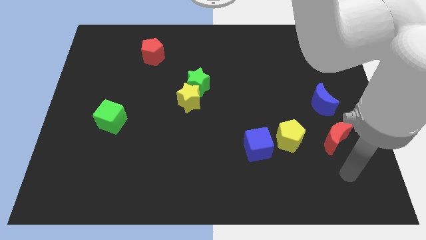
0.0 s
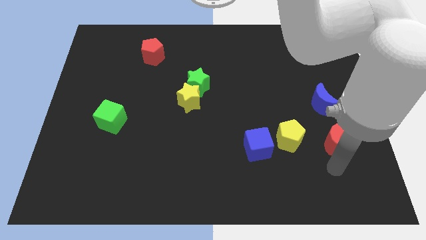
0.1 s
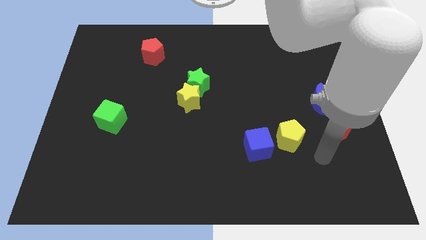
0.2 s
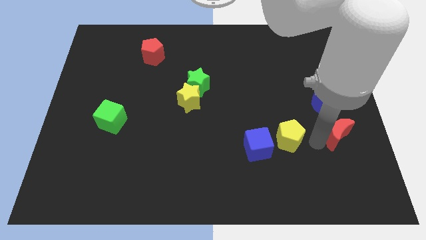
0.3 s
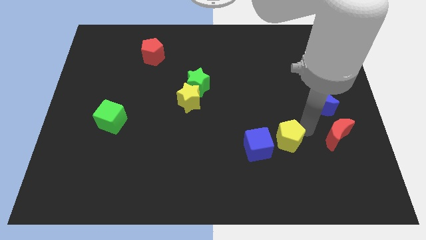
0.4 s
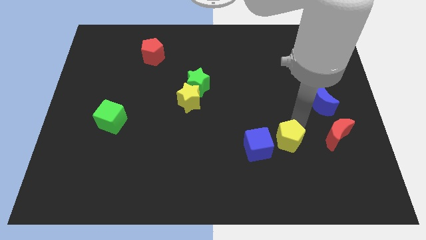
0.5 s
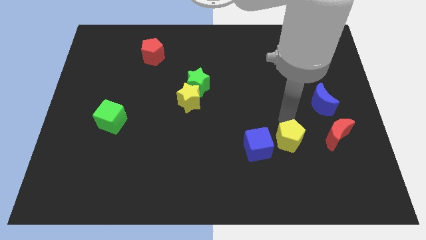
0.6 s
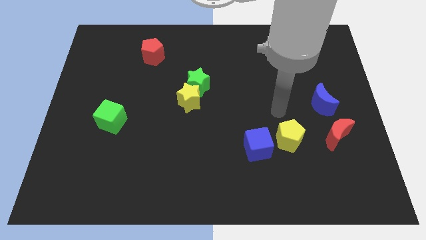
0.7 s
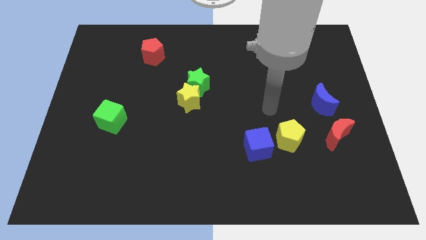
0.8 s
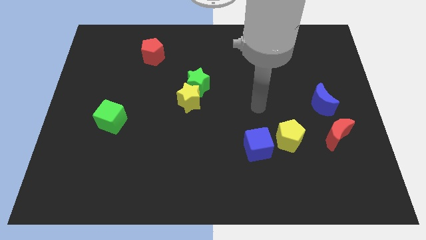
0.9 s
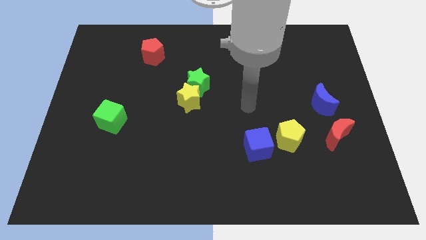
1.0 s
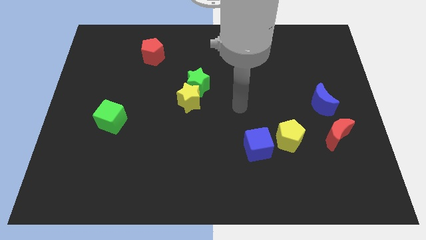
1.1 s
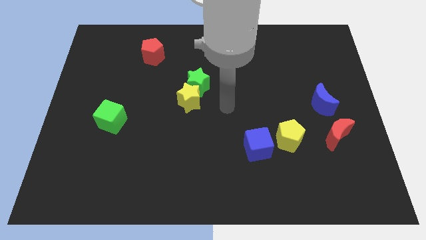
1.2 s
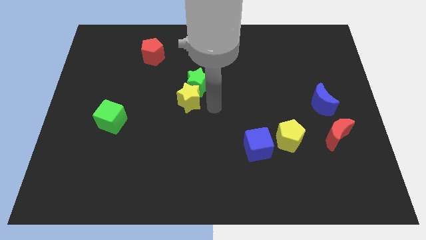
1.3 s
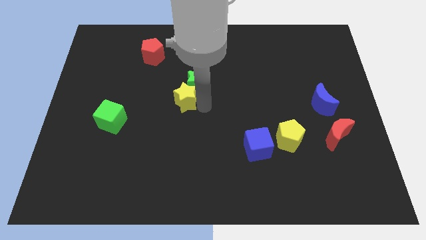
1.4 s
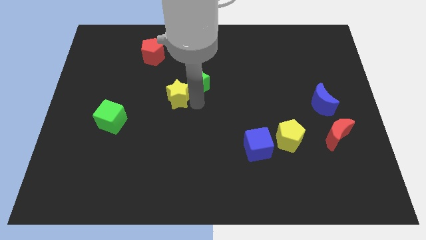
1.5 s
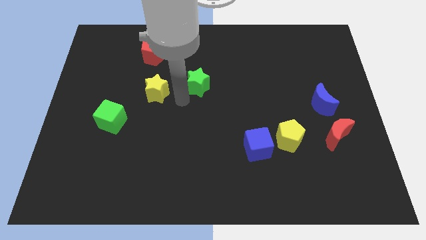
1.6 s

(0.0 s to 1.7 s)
move the green star away from the yellow star

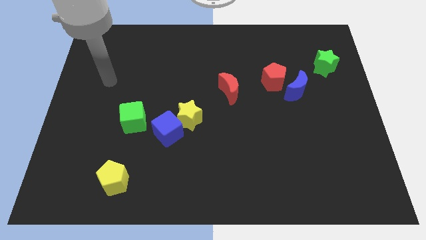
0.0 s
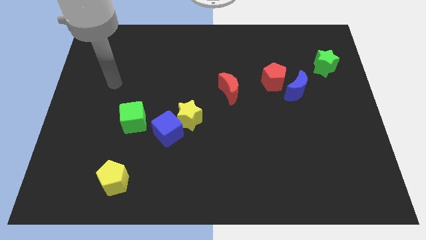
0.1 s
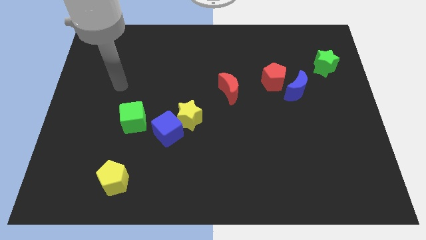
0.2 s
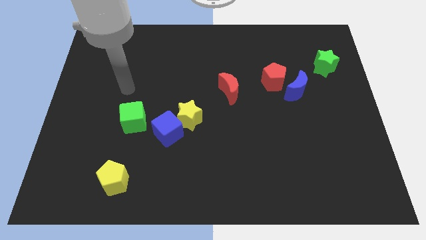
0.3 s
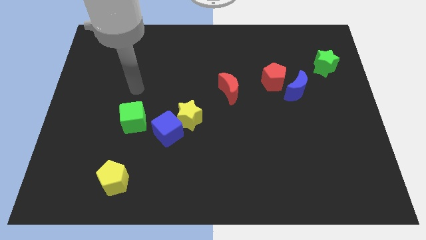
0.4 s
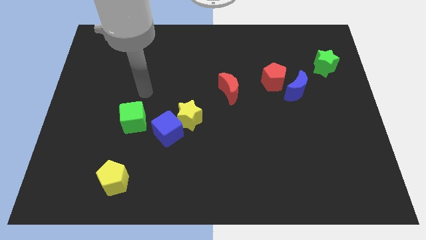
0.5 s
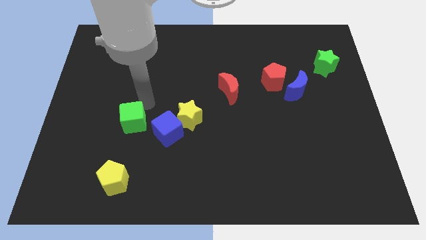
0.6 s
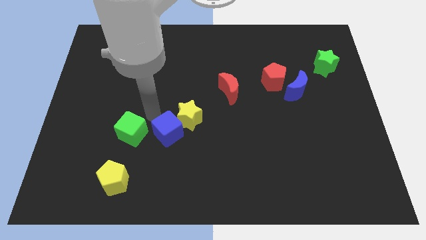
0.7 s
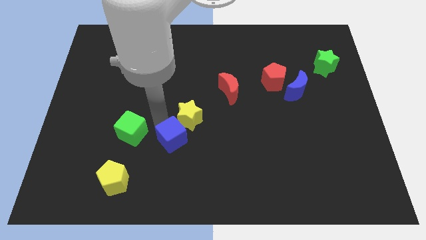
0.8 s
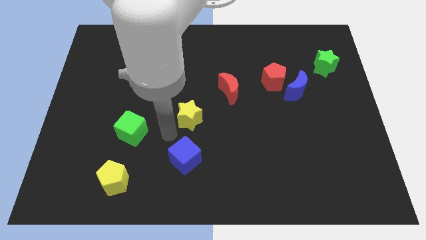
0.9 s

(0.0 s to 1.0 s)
move the yellow star away from the blue cube

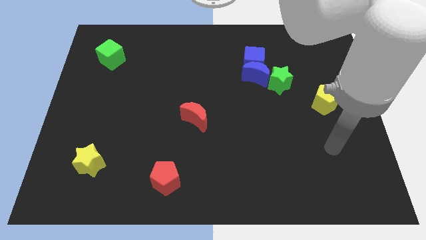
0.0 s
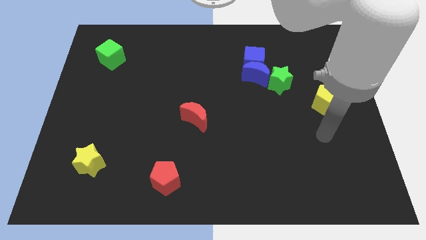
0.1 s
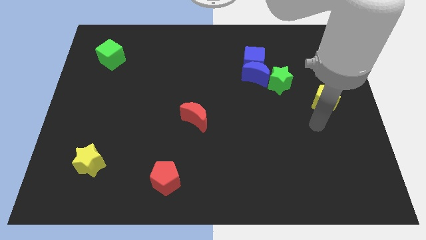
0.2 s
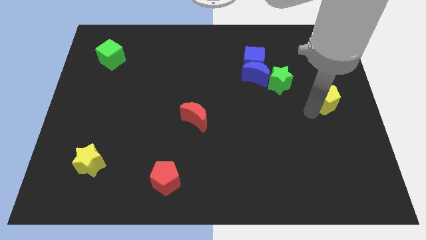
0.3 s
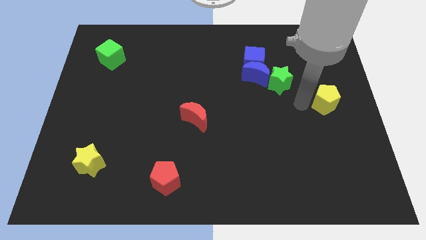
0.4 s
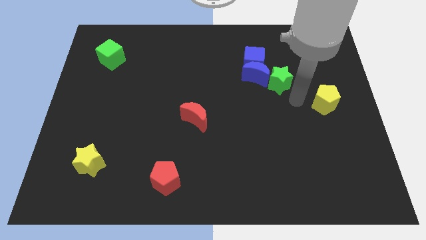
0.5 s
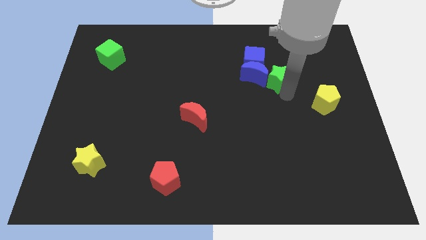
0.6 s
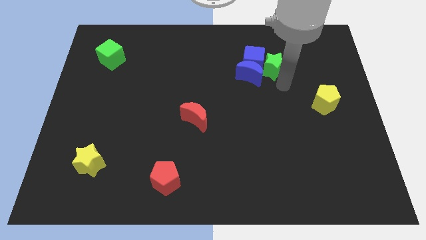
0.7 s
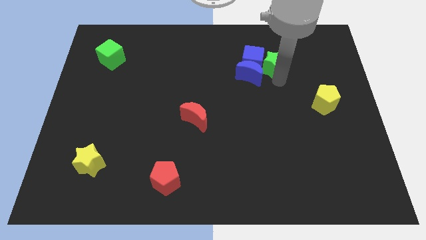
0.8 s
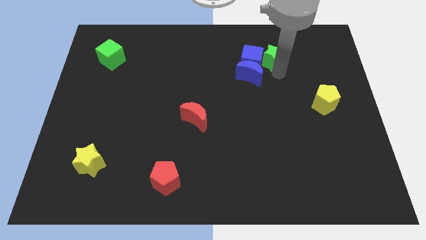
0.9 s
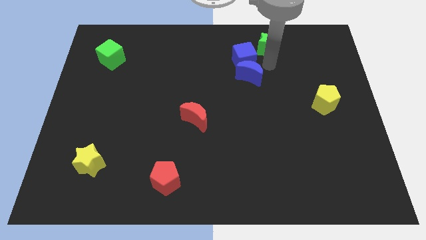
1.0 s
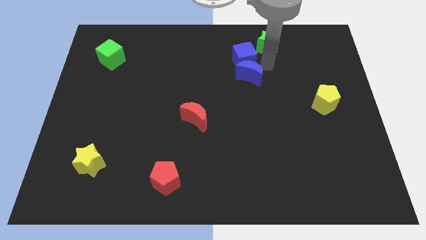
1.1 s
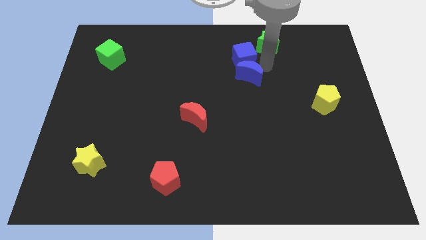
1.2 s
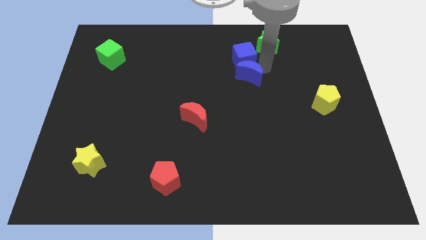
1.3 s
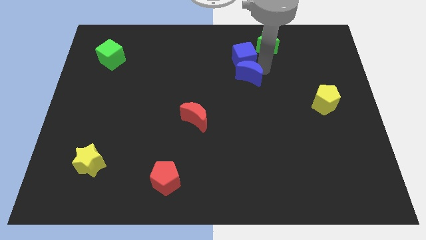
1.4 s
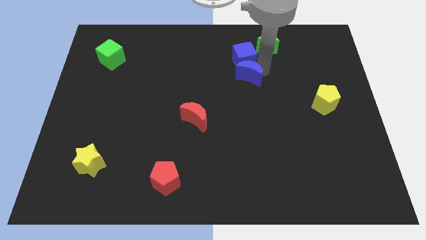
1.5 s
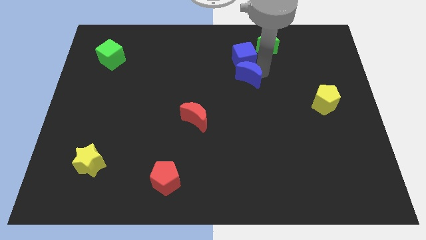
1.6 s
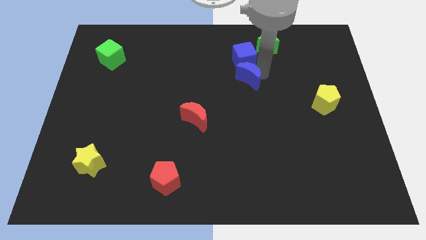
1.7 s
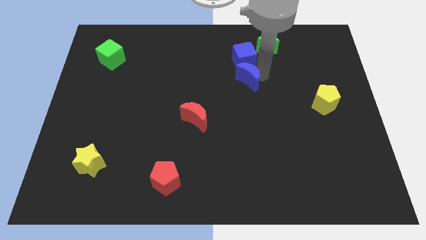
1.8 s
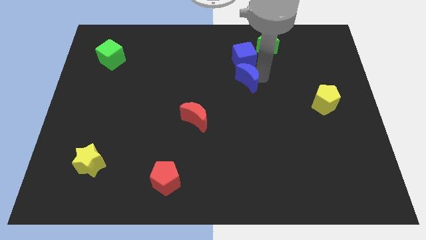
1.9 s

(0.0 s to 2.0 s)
pull the blue moon apart from the blue cube and green star

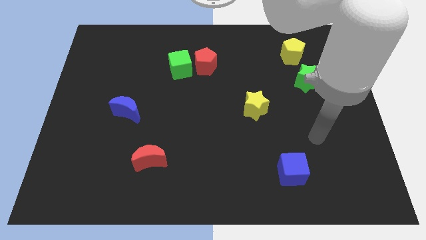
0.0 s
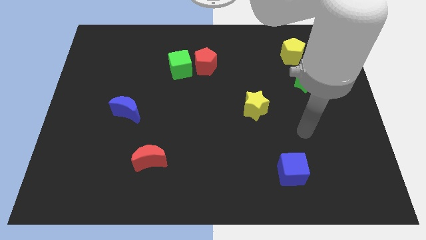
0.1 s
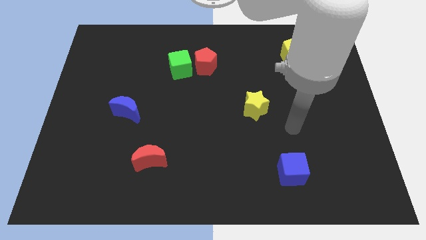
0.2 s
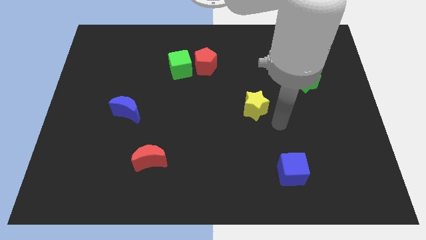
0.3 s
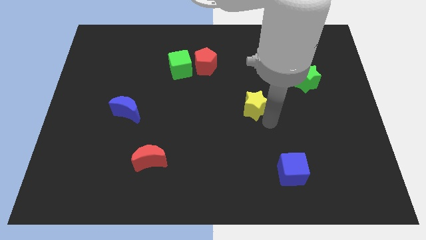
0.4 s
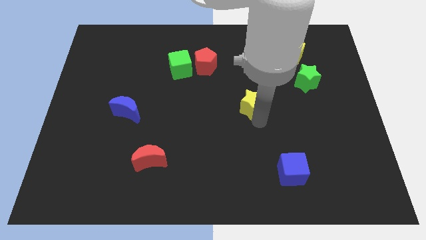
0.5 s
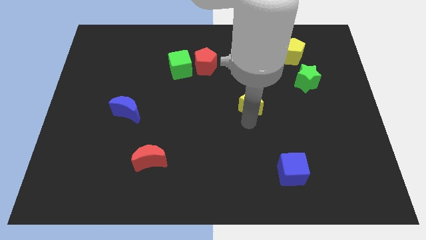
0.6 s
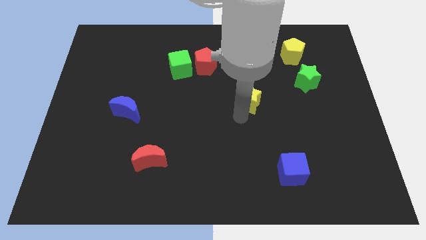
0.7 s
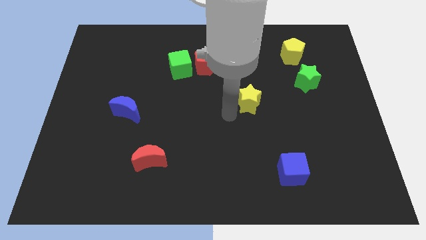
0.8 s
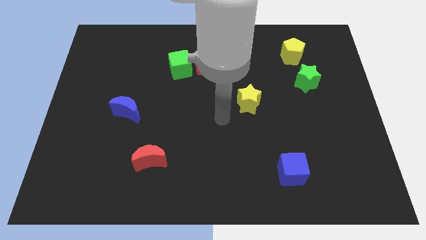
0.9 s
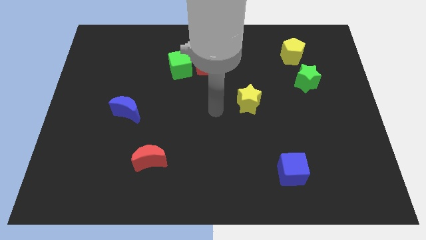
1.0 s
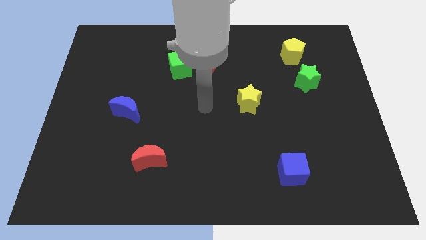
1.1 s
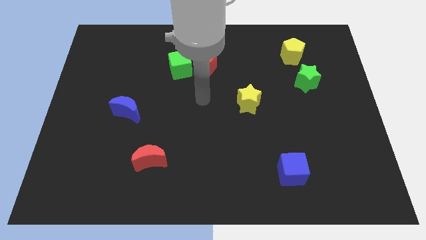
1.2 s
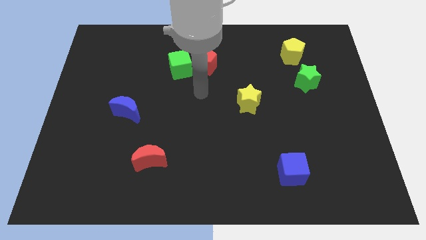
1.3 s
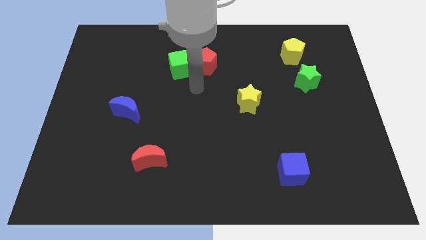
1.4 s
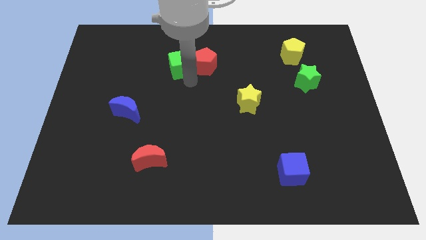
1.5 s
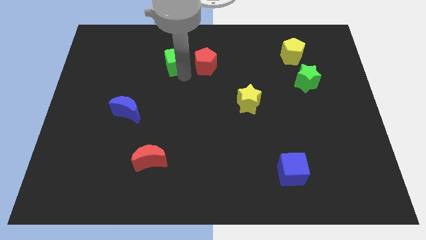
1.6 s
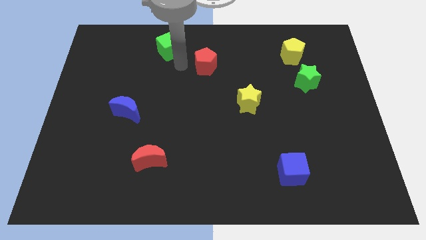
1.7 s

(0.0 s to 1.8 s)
pull the red pentagon apart from the green cube

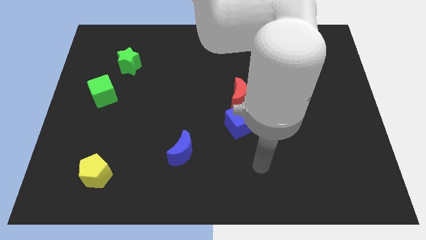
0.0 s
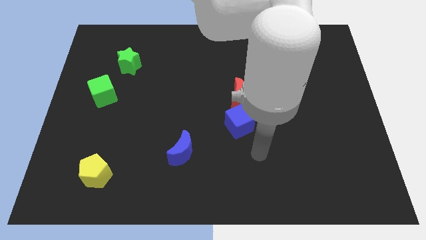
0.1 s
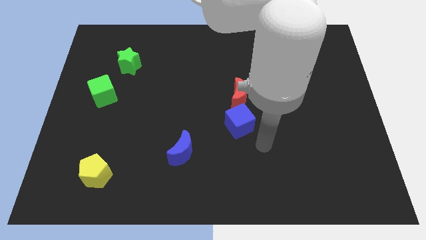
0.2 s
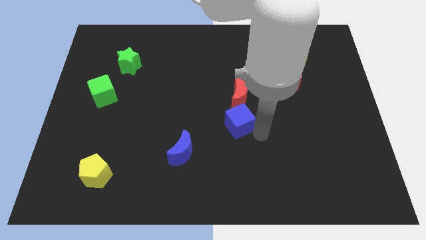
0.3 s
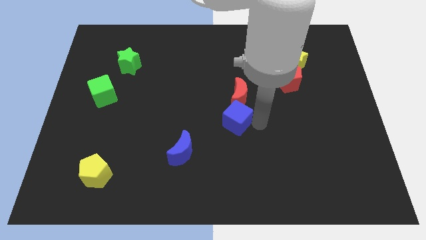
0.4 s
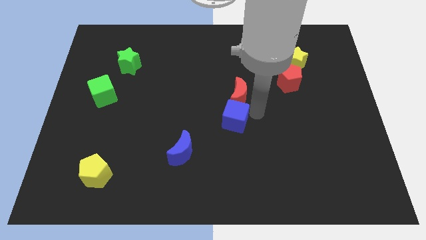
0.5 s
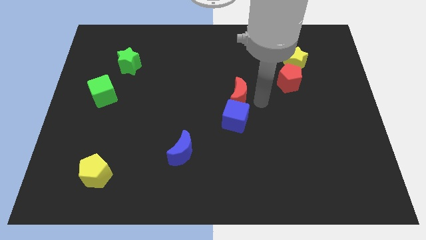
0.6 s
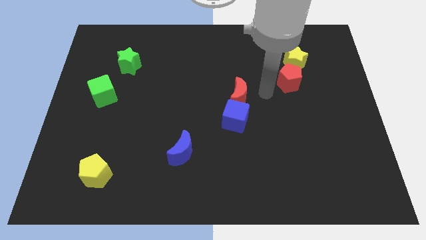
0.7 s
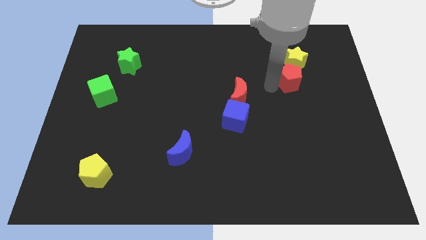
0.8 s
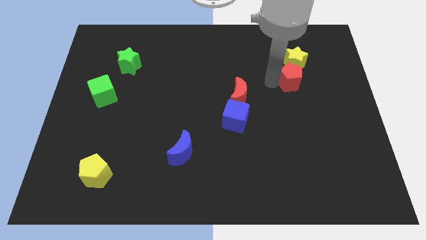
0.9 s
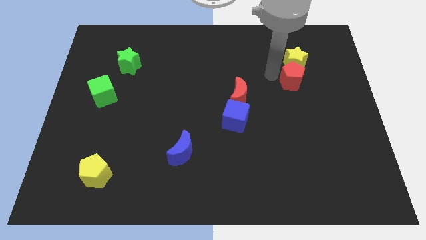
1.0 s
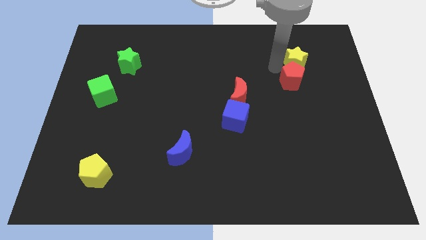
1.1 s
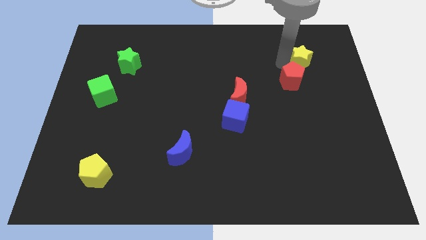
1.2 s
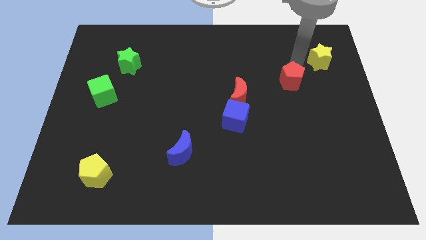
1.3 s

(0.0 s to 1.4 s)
separate the red pentagon from the yellow star

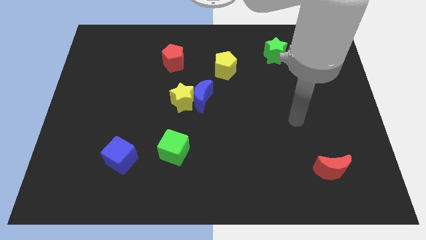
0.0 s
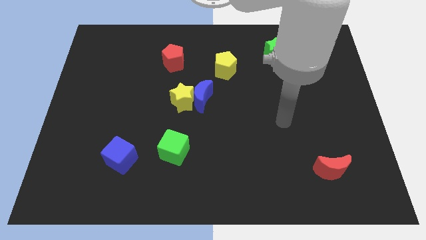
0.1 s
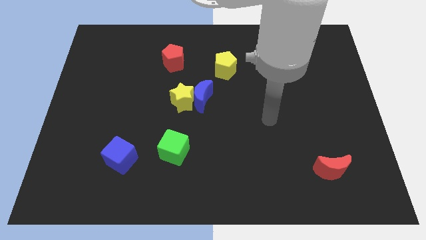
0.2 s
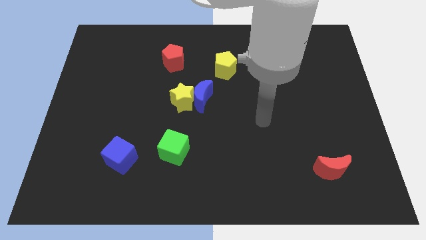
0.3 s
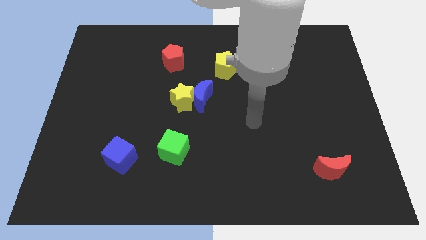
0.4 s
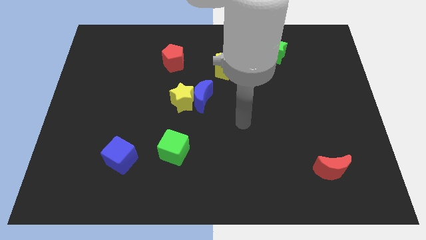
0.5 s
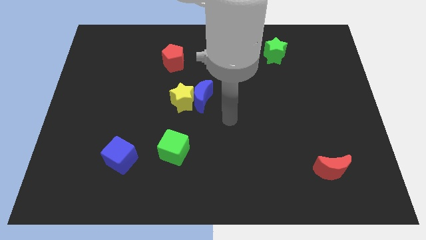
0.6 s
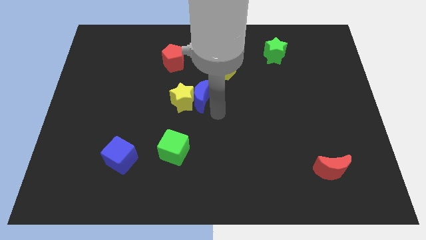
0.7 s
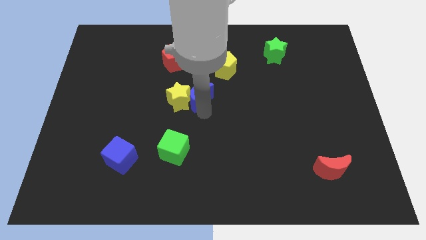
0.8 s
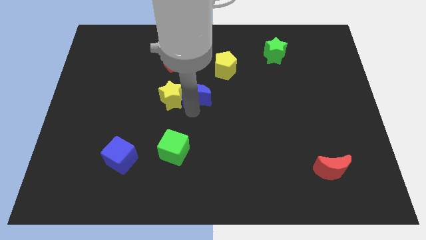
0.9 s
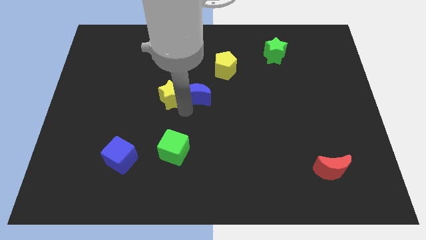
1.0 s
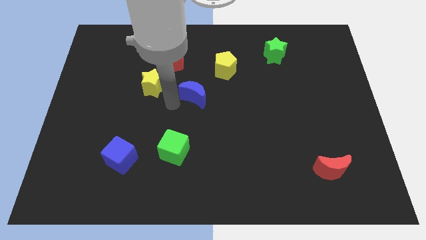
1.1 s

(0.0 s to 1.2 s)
move the blue moon away from the yellow star
